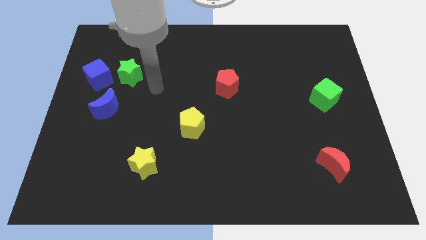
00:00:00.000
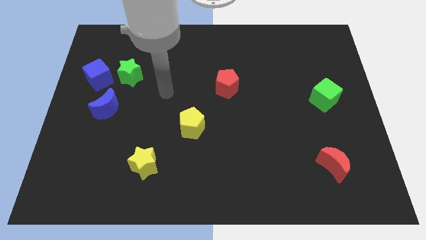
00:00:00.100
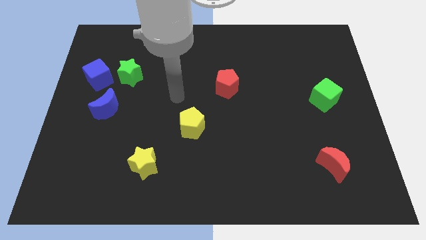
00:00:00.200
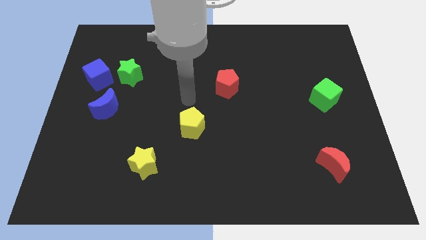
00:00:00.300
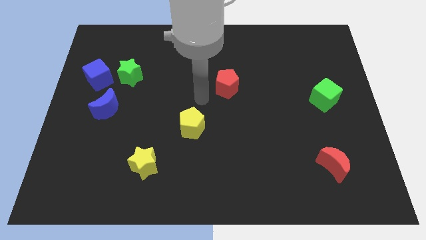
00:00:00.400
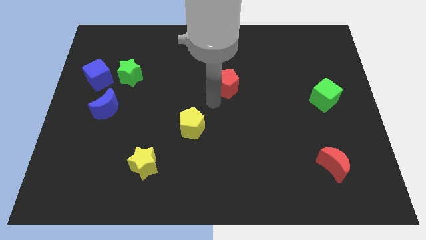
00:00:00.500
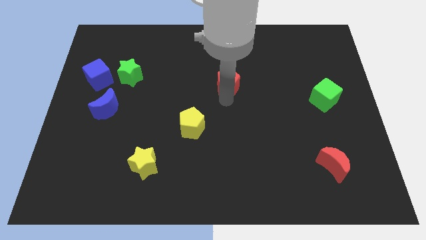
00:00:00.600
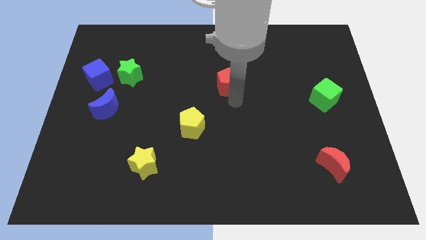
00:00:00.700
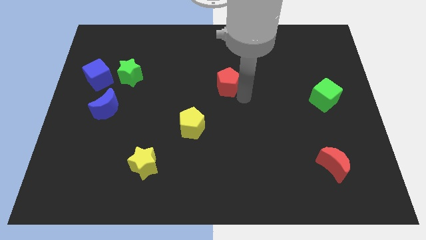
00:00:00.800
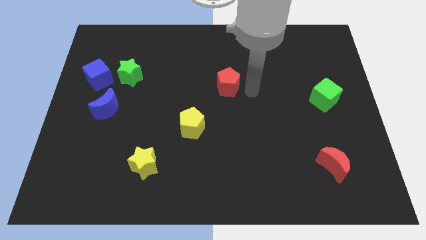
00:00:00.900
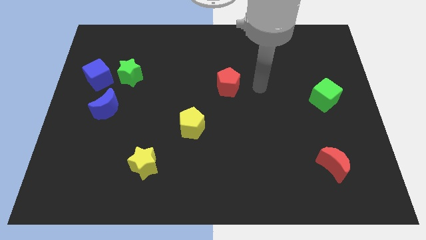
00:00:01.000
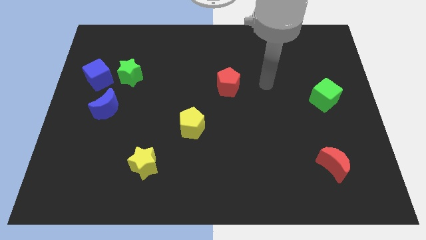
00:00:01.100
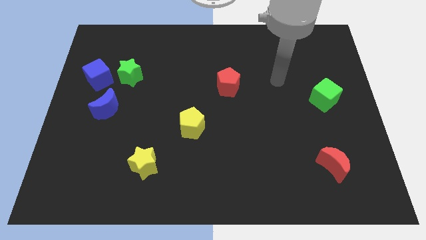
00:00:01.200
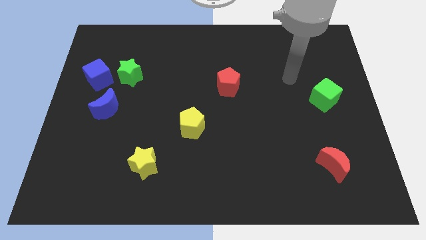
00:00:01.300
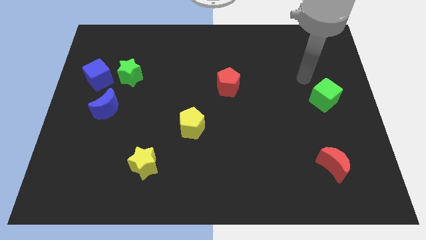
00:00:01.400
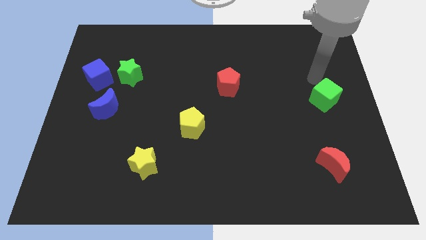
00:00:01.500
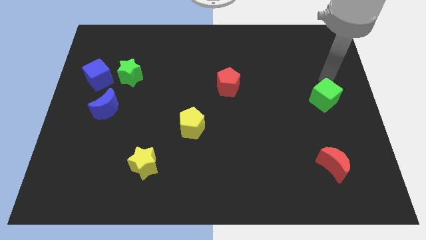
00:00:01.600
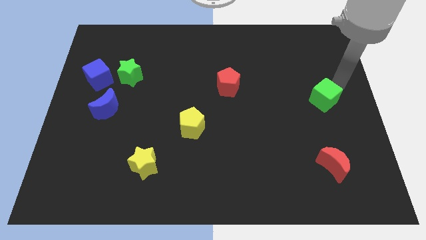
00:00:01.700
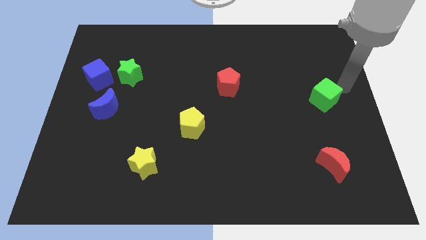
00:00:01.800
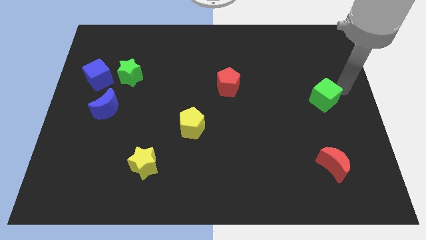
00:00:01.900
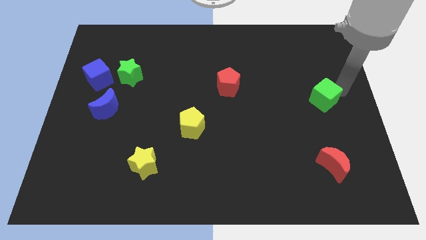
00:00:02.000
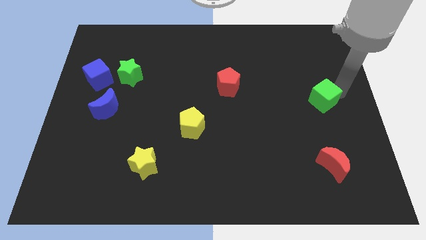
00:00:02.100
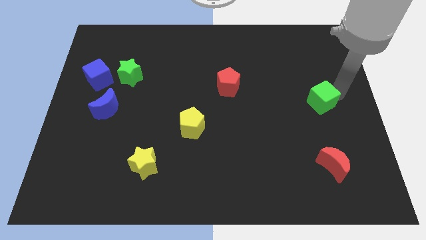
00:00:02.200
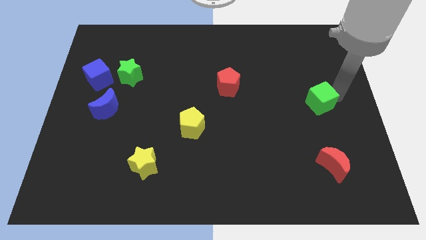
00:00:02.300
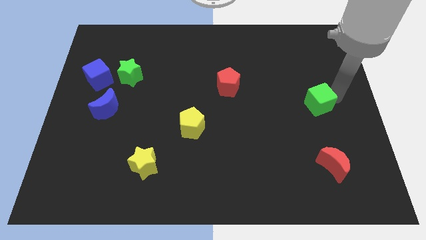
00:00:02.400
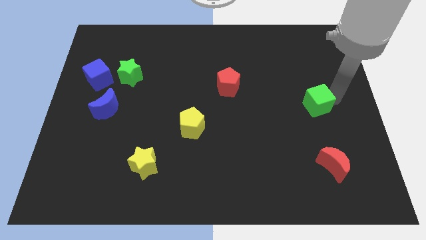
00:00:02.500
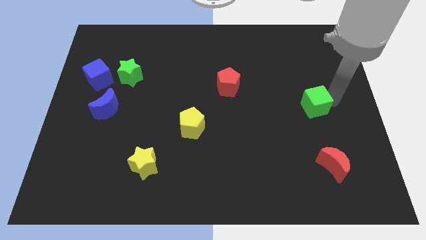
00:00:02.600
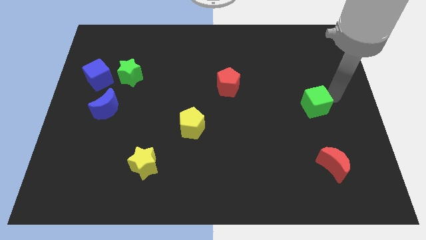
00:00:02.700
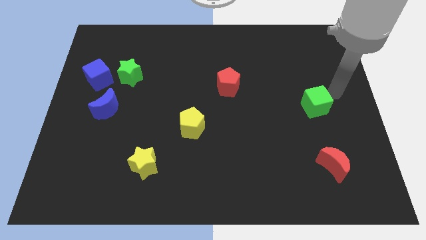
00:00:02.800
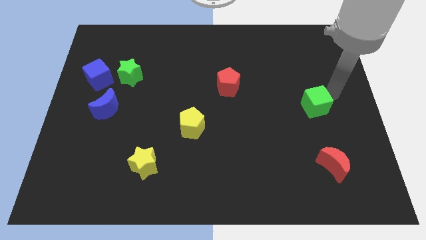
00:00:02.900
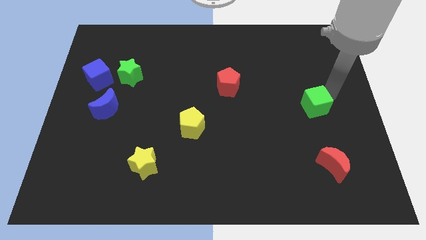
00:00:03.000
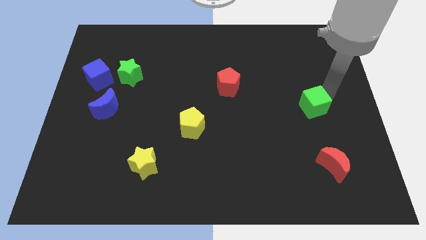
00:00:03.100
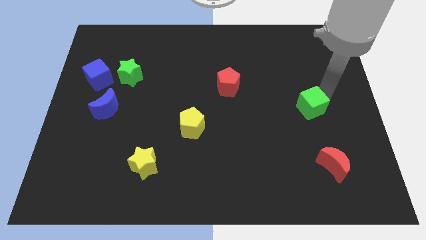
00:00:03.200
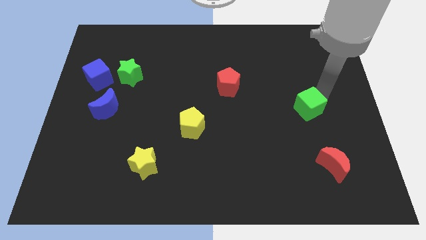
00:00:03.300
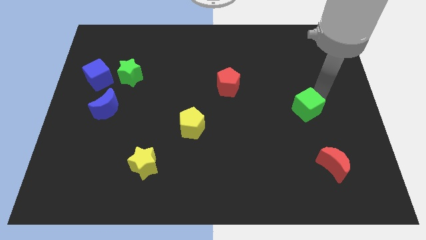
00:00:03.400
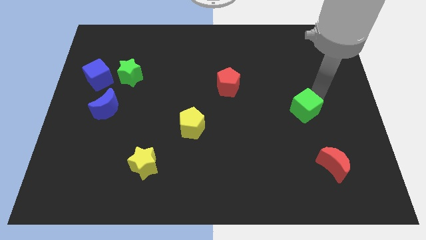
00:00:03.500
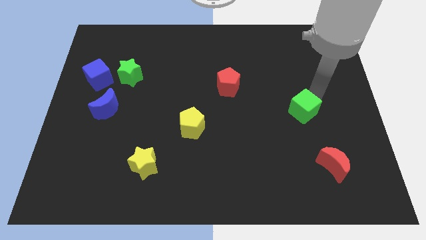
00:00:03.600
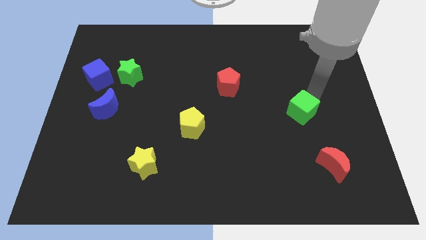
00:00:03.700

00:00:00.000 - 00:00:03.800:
slightly push the green cube down and to the left diagonally

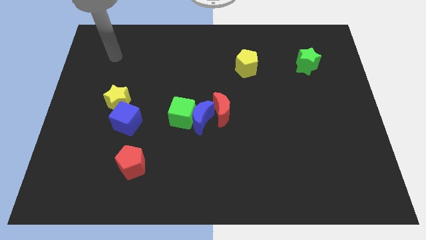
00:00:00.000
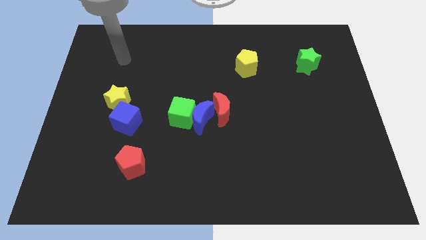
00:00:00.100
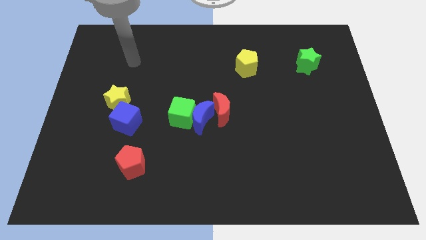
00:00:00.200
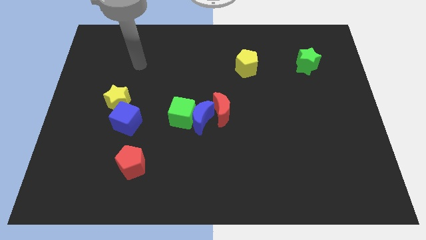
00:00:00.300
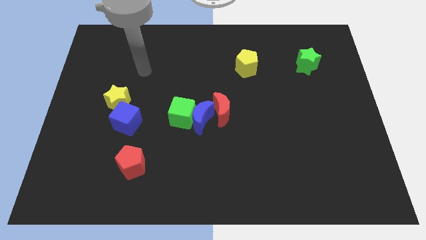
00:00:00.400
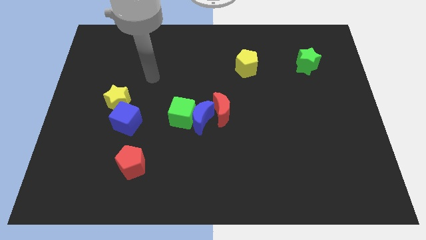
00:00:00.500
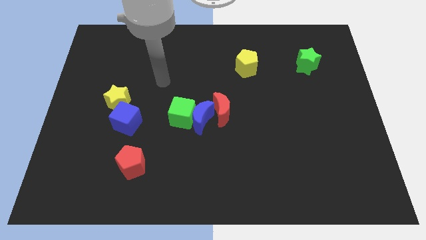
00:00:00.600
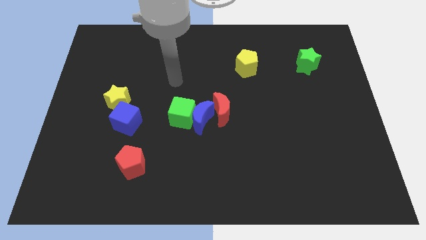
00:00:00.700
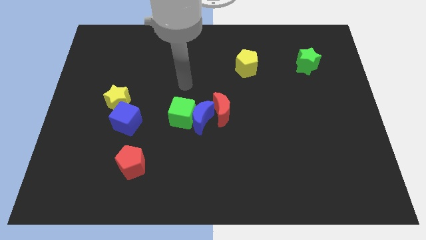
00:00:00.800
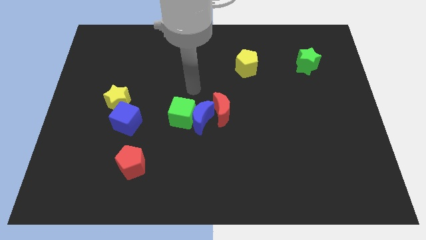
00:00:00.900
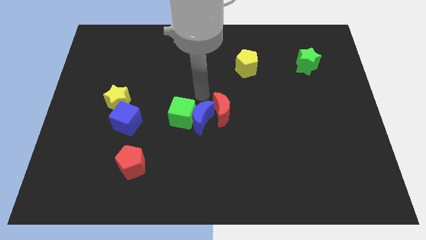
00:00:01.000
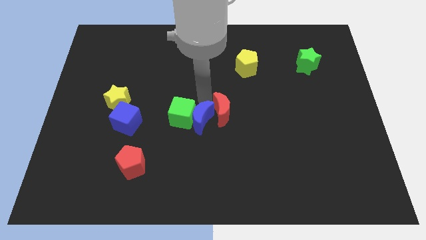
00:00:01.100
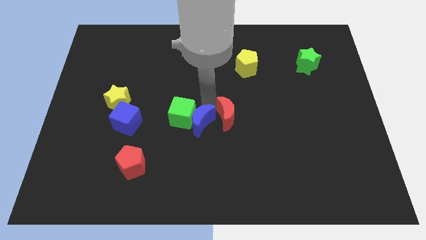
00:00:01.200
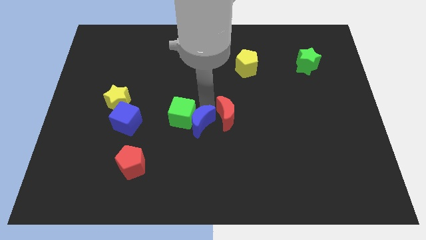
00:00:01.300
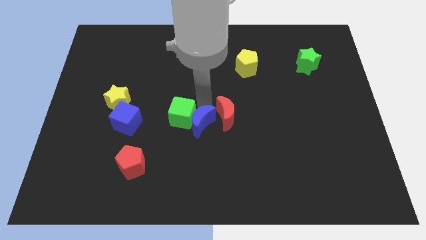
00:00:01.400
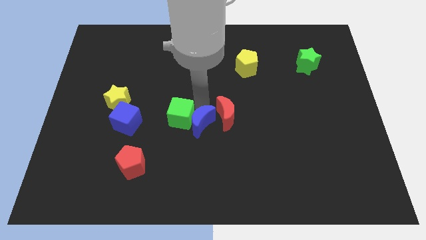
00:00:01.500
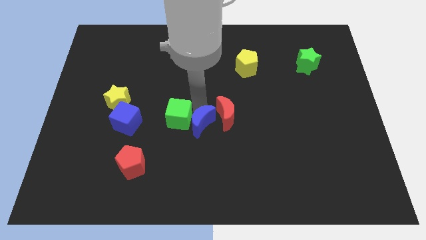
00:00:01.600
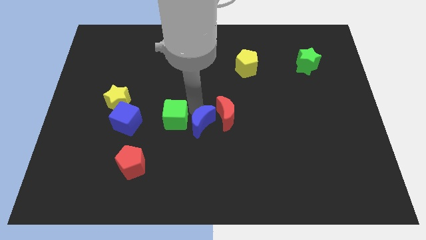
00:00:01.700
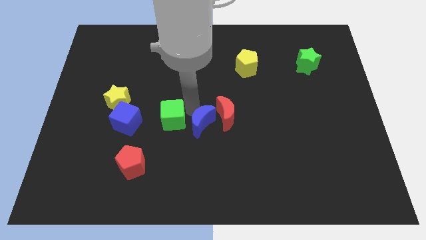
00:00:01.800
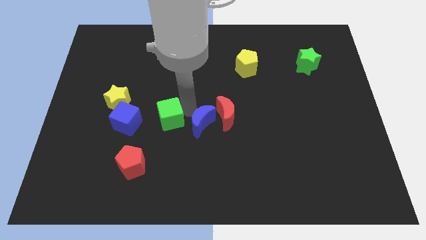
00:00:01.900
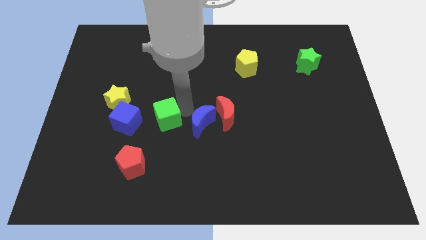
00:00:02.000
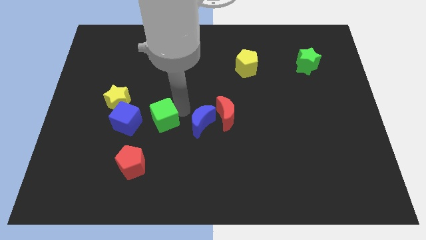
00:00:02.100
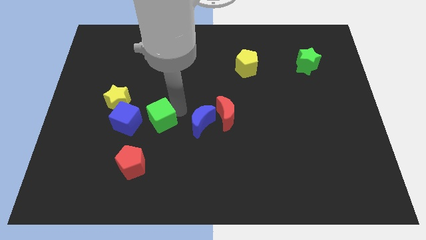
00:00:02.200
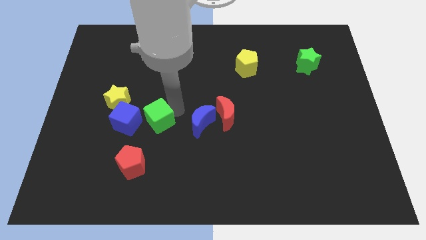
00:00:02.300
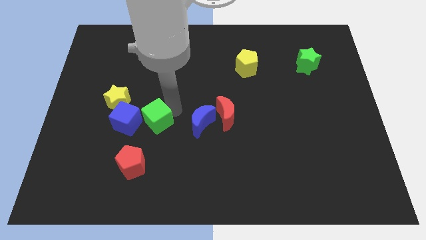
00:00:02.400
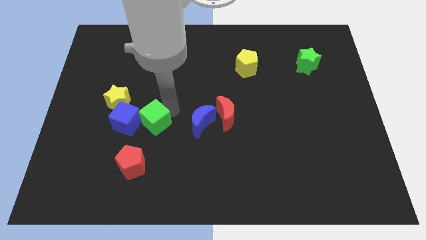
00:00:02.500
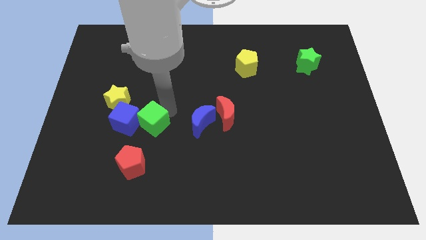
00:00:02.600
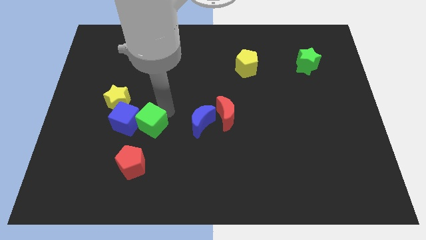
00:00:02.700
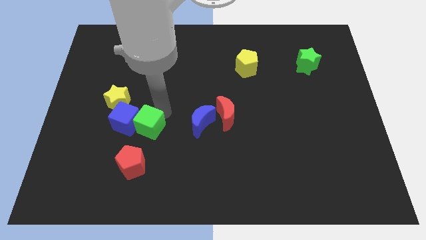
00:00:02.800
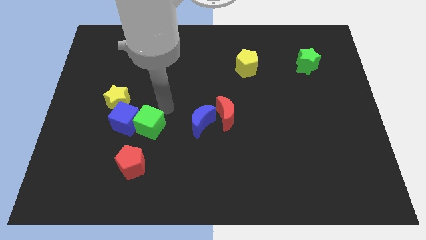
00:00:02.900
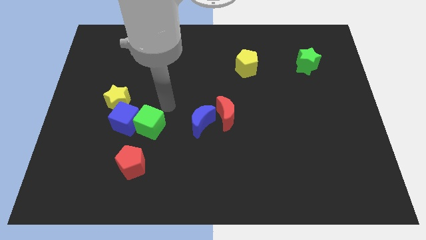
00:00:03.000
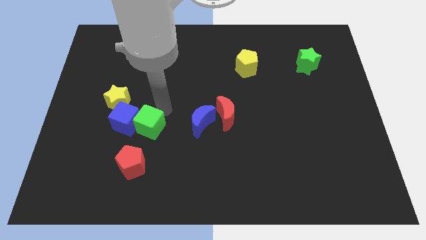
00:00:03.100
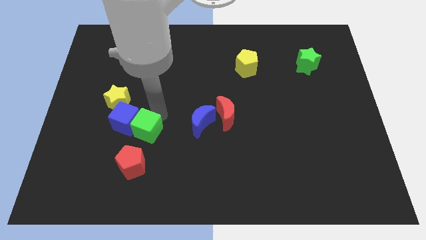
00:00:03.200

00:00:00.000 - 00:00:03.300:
slightly move the green cube down and then left

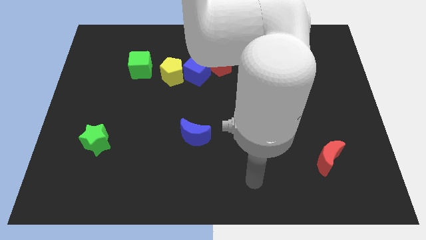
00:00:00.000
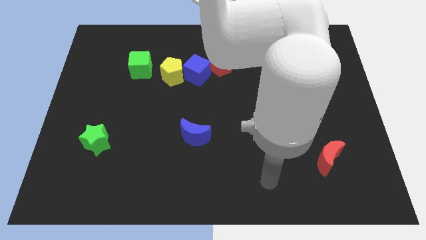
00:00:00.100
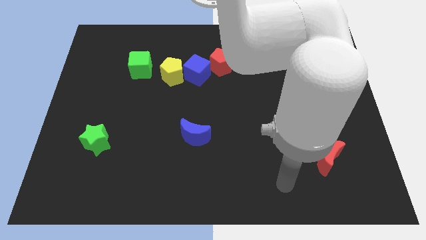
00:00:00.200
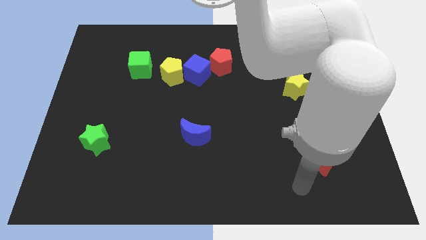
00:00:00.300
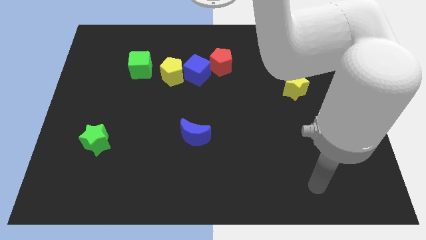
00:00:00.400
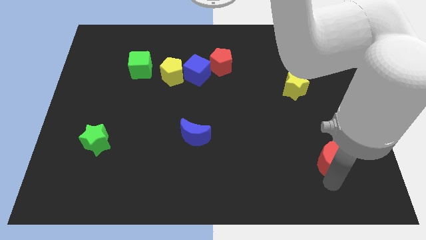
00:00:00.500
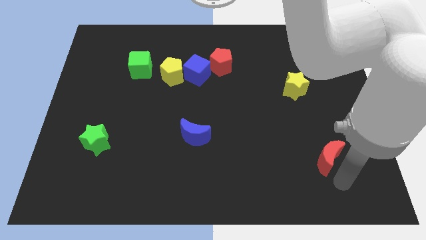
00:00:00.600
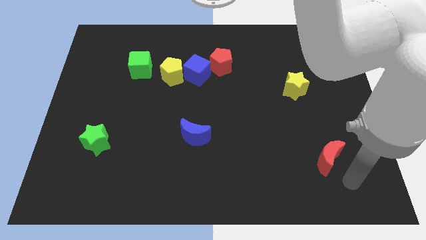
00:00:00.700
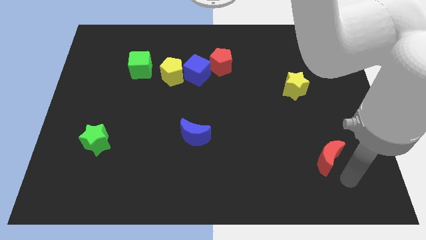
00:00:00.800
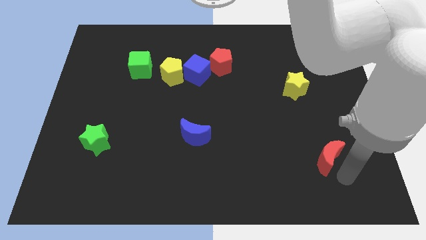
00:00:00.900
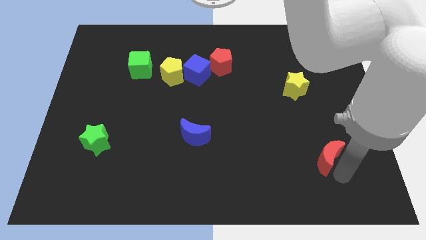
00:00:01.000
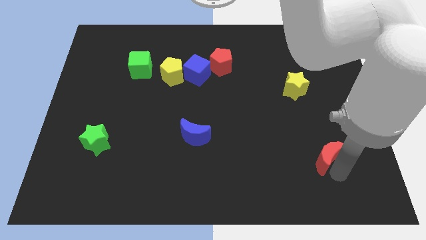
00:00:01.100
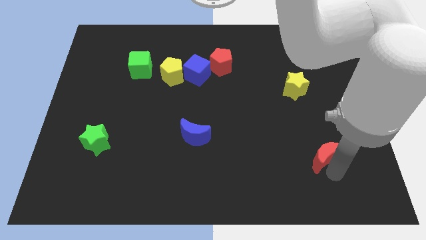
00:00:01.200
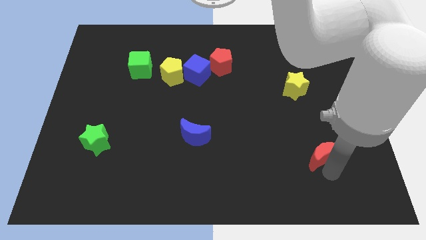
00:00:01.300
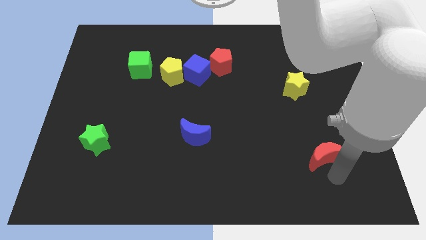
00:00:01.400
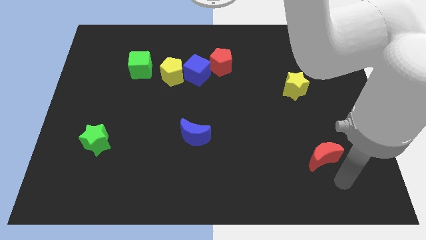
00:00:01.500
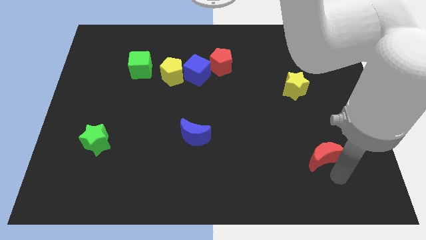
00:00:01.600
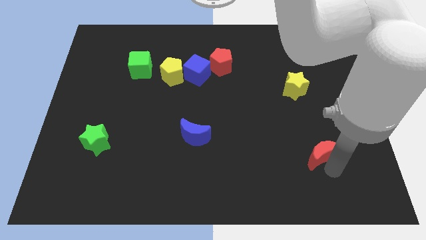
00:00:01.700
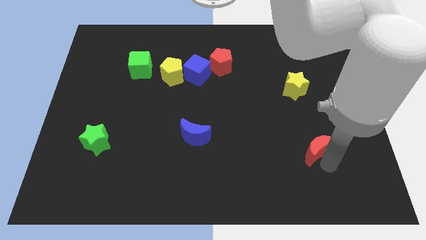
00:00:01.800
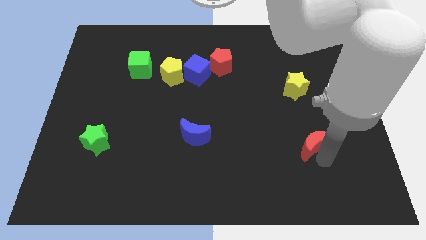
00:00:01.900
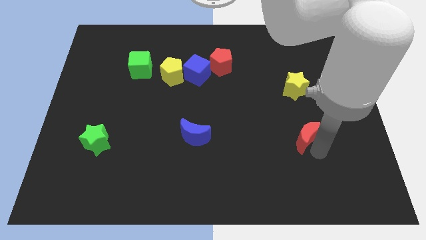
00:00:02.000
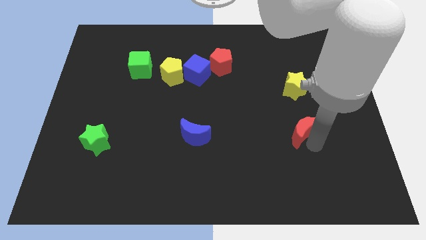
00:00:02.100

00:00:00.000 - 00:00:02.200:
slightly slide the red moon diagonally upwards and left
